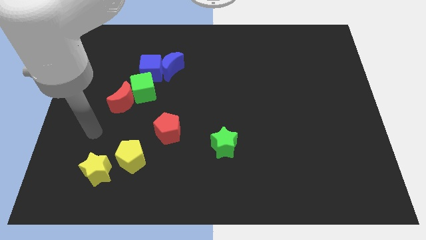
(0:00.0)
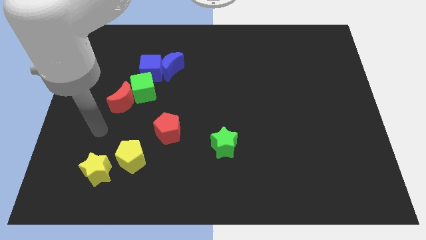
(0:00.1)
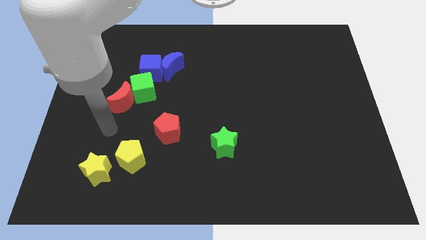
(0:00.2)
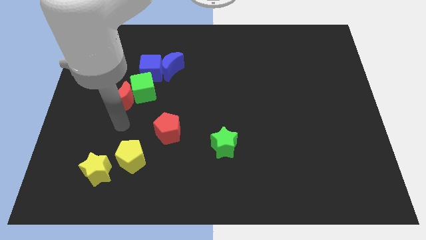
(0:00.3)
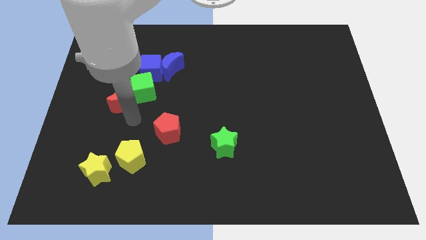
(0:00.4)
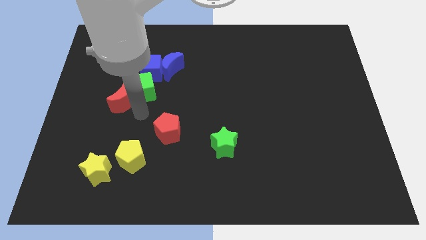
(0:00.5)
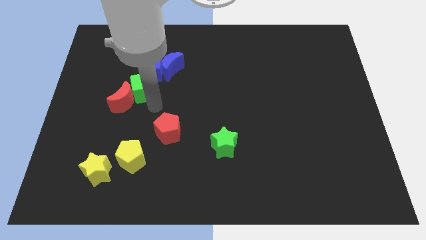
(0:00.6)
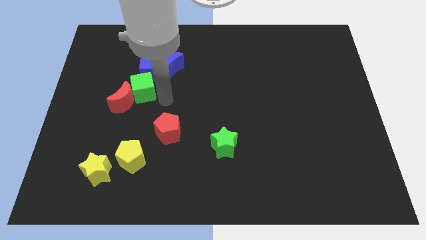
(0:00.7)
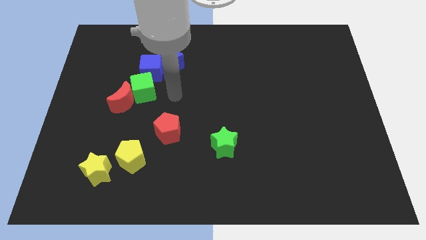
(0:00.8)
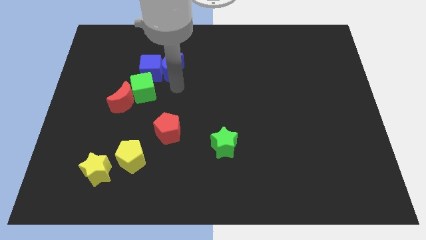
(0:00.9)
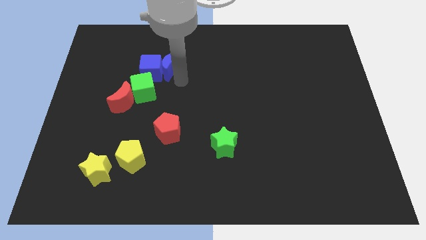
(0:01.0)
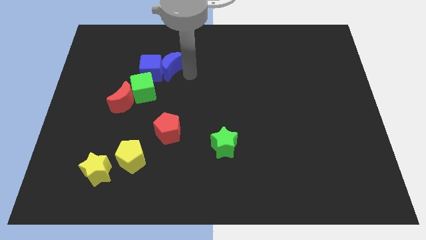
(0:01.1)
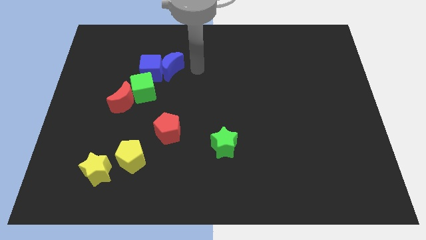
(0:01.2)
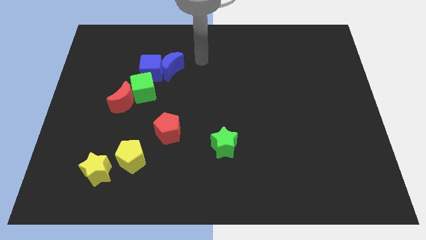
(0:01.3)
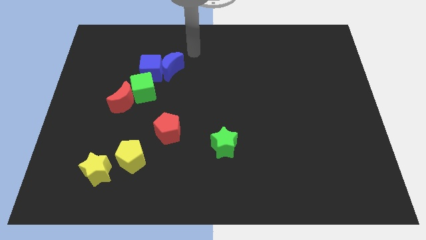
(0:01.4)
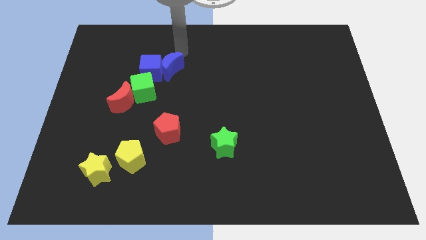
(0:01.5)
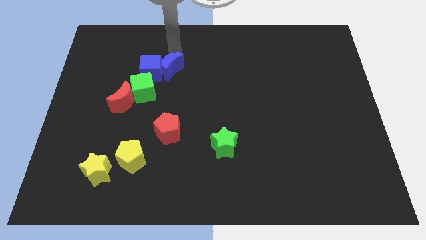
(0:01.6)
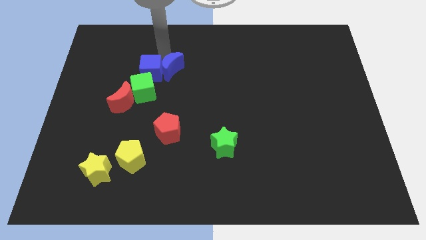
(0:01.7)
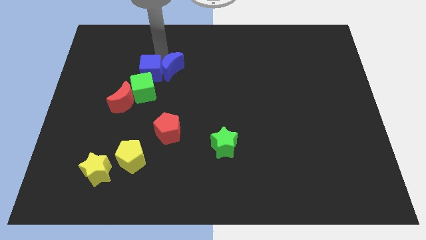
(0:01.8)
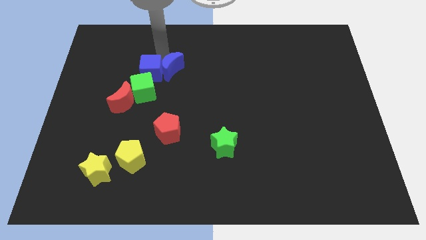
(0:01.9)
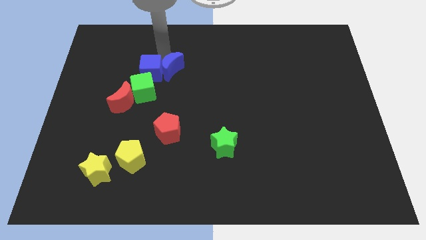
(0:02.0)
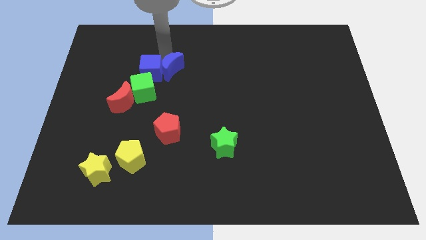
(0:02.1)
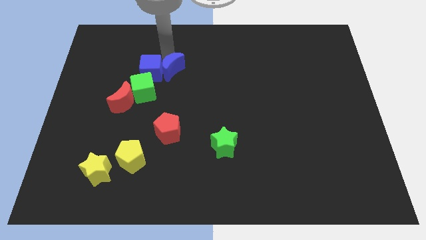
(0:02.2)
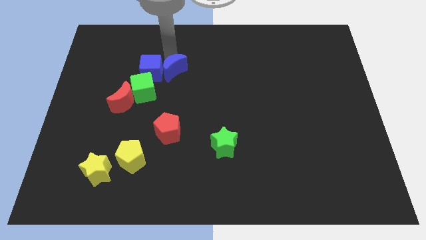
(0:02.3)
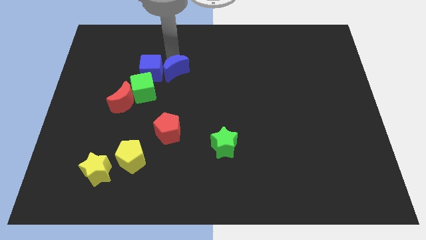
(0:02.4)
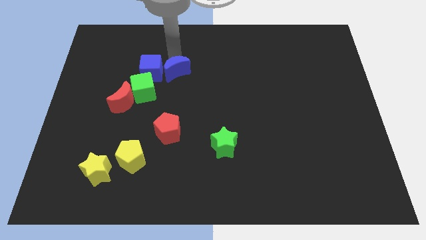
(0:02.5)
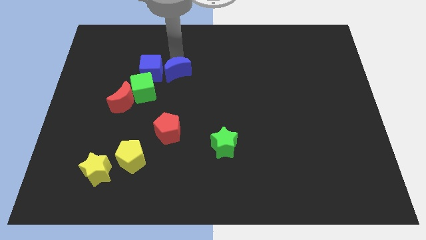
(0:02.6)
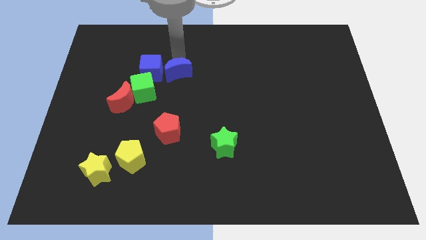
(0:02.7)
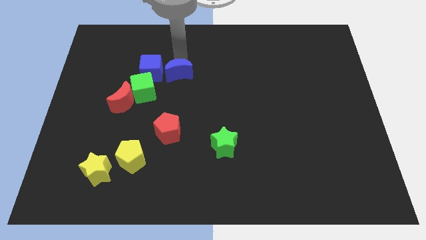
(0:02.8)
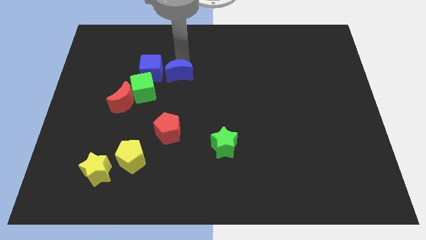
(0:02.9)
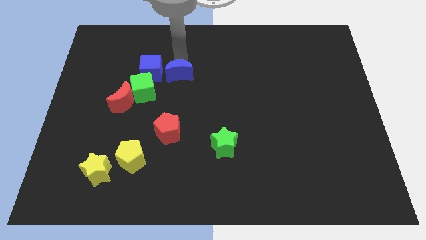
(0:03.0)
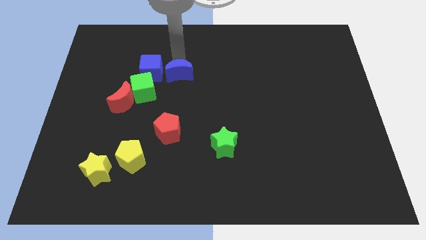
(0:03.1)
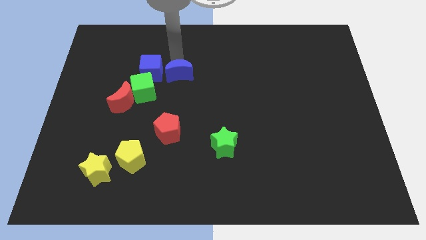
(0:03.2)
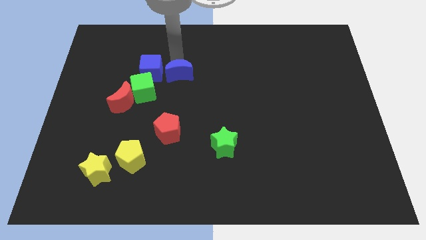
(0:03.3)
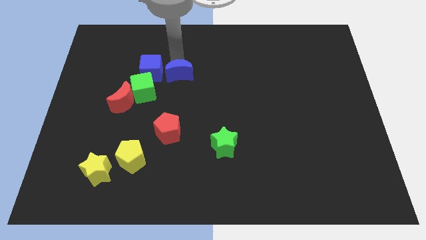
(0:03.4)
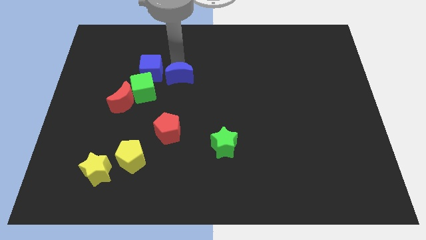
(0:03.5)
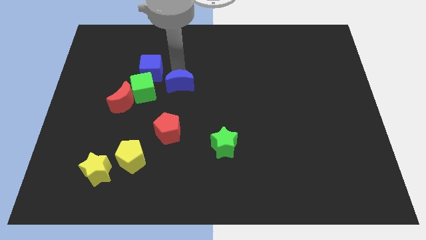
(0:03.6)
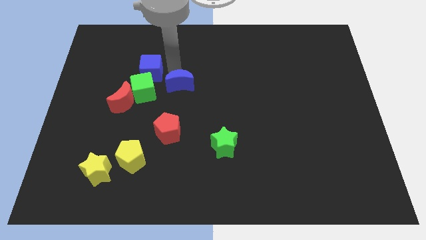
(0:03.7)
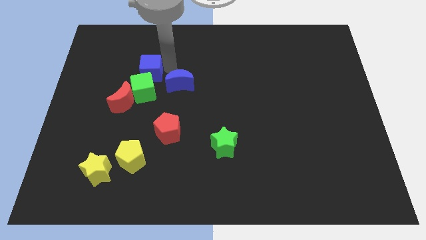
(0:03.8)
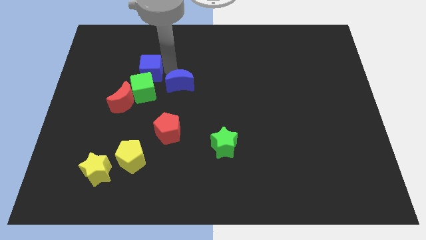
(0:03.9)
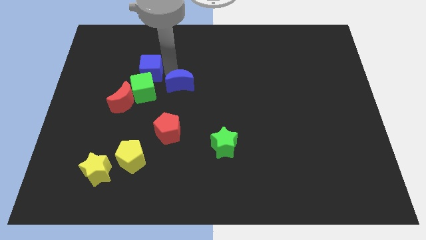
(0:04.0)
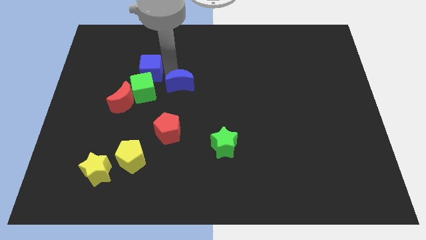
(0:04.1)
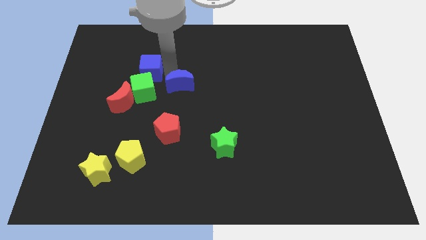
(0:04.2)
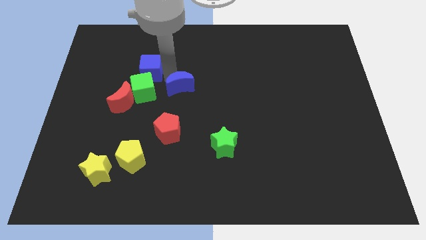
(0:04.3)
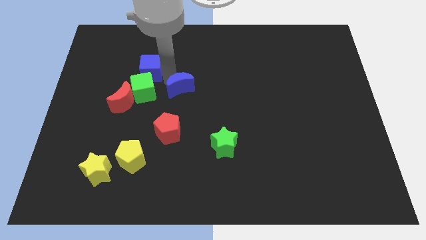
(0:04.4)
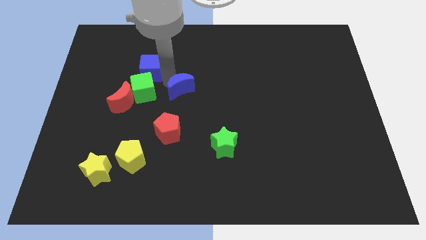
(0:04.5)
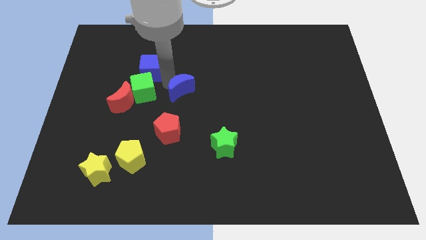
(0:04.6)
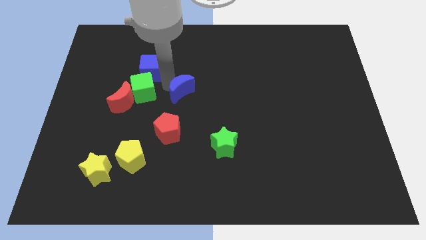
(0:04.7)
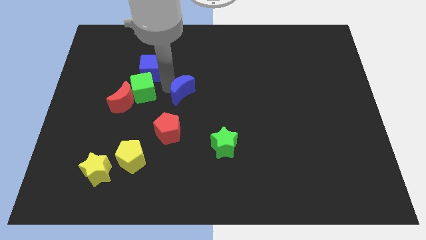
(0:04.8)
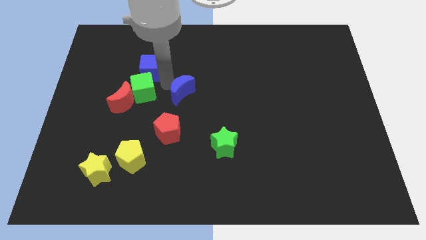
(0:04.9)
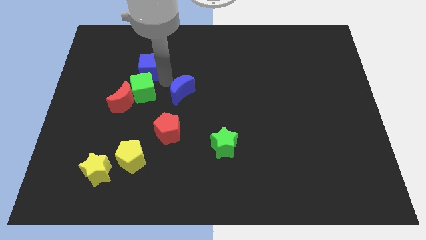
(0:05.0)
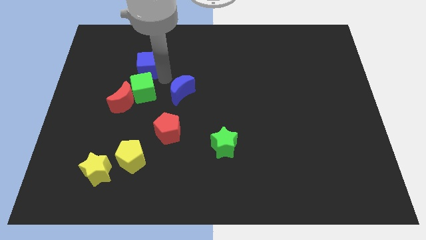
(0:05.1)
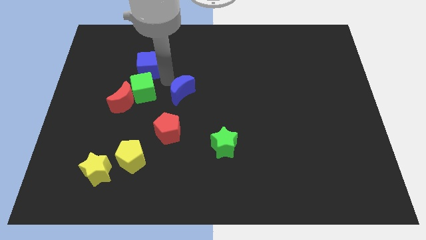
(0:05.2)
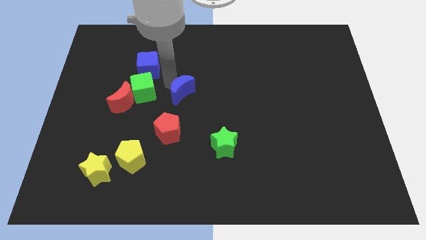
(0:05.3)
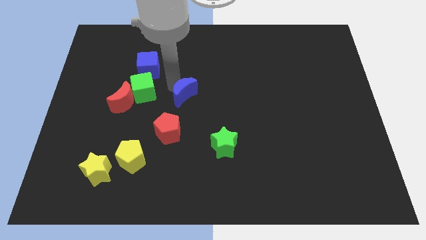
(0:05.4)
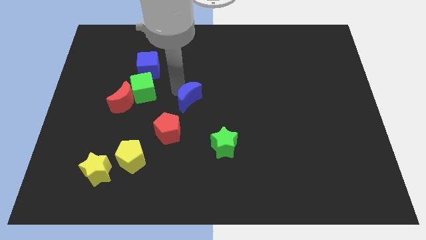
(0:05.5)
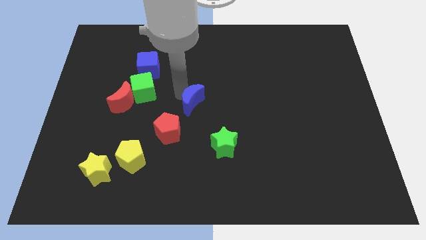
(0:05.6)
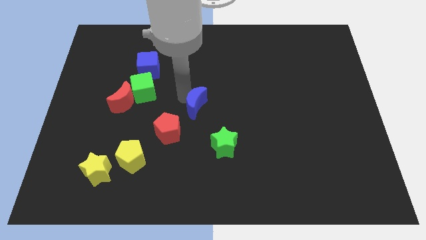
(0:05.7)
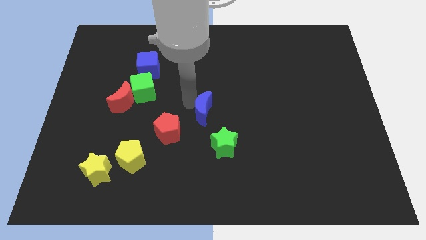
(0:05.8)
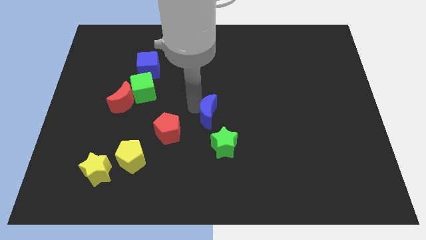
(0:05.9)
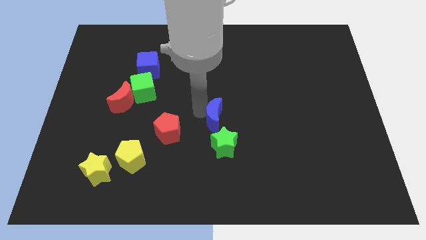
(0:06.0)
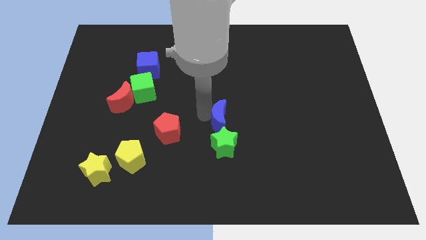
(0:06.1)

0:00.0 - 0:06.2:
slide the blue moon diagonally downwards and right

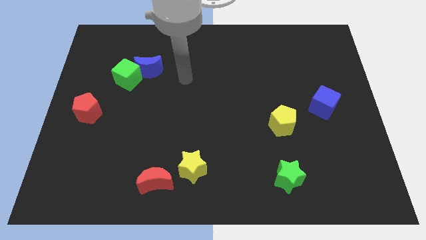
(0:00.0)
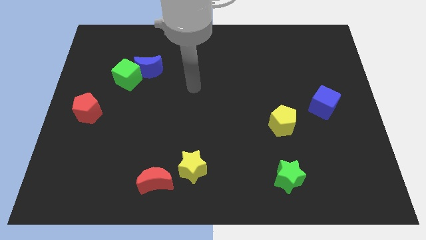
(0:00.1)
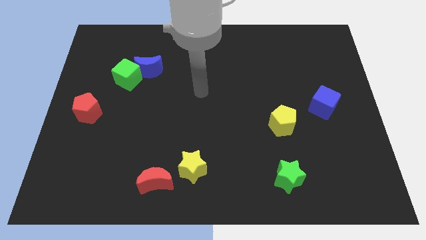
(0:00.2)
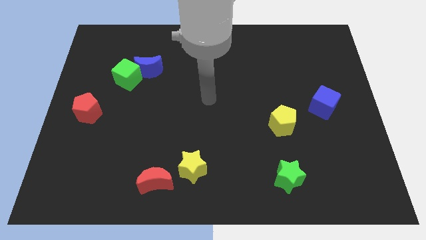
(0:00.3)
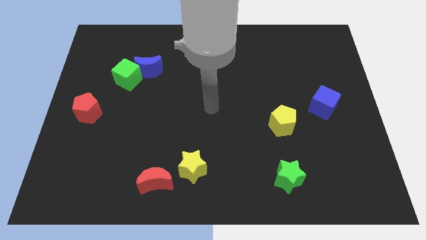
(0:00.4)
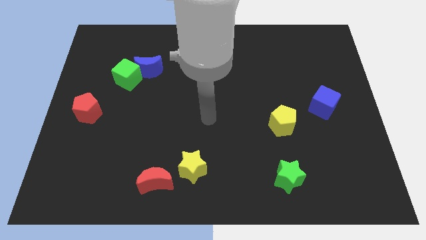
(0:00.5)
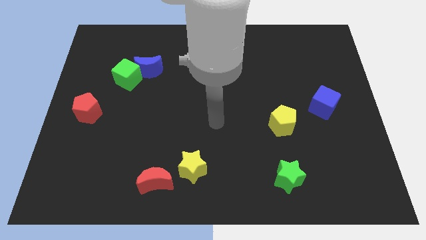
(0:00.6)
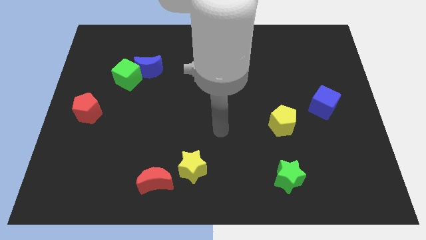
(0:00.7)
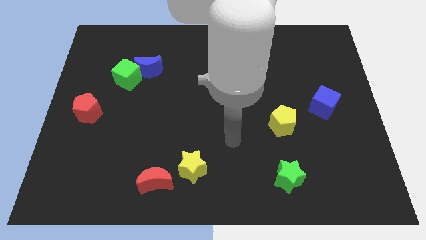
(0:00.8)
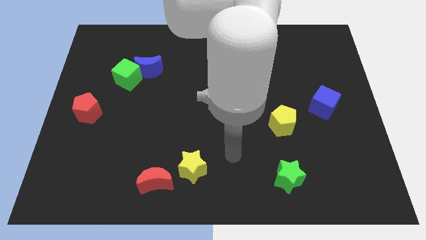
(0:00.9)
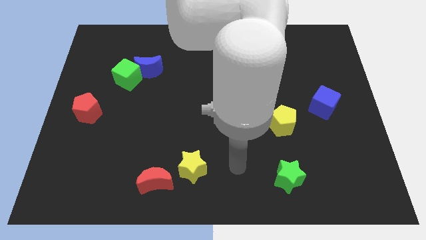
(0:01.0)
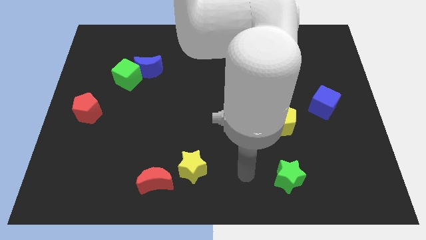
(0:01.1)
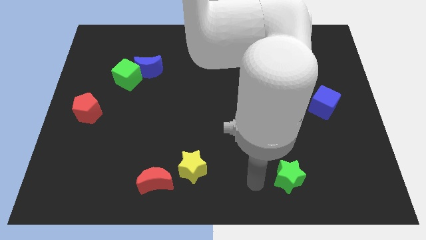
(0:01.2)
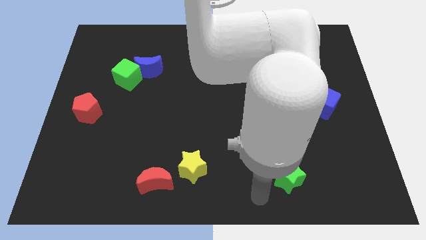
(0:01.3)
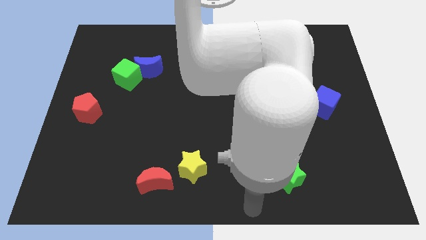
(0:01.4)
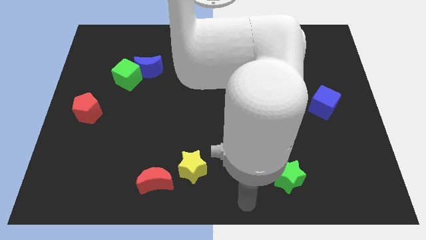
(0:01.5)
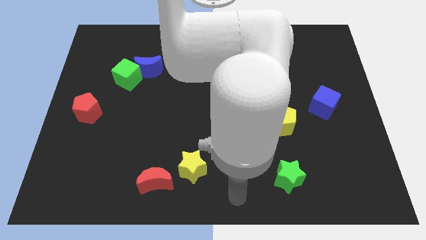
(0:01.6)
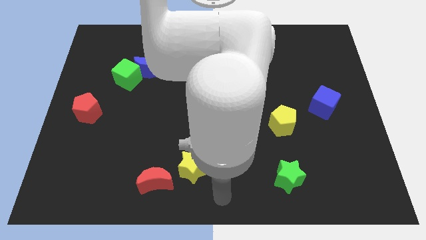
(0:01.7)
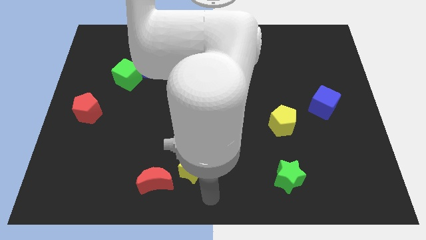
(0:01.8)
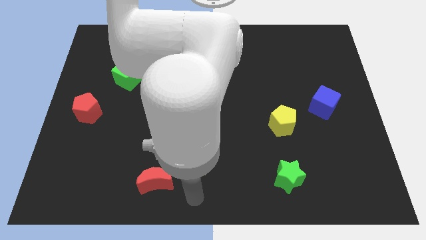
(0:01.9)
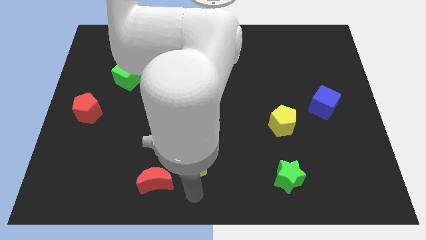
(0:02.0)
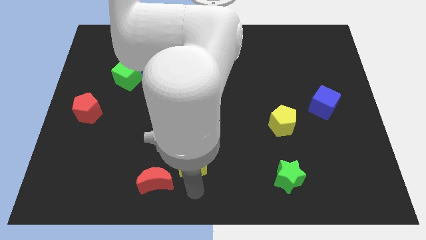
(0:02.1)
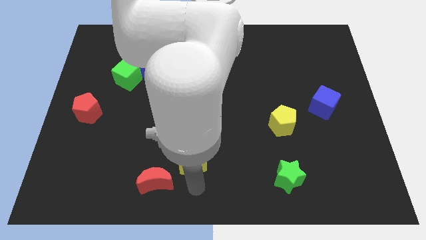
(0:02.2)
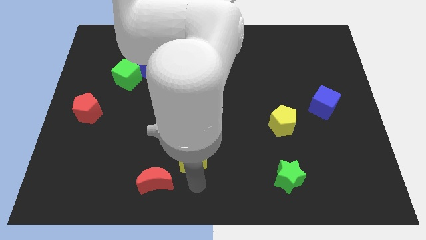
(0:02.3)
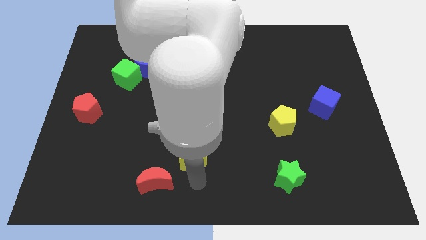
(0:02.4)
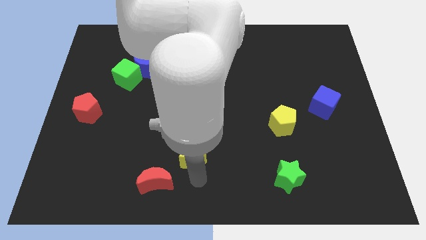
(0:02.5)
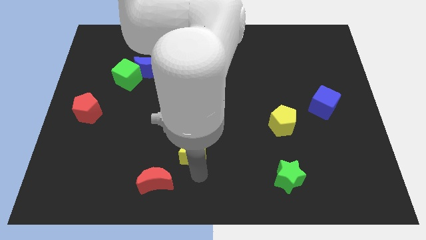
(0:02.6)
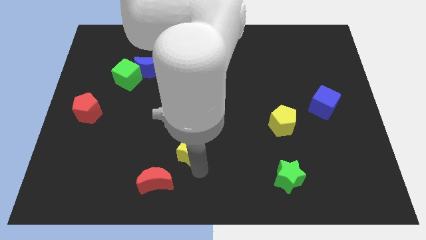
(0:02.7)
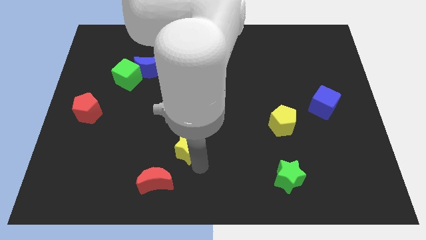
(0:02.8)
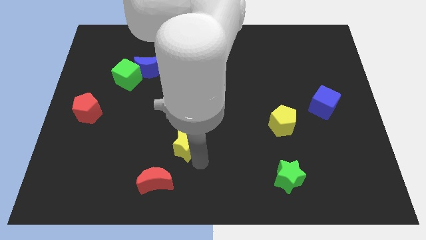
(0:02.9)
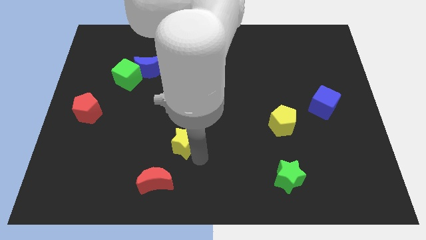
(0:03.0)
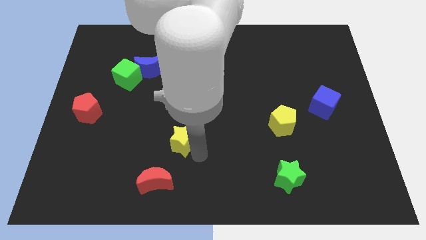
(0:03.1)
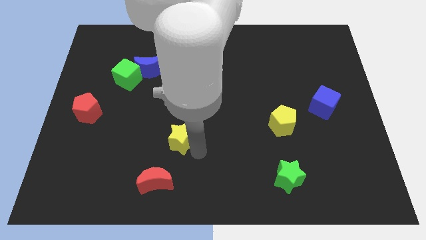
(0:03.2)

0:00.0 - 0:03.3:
slightly slide the yellow star up
